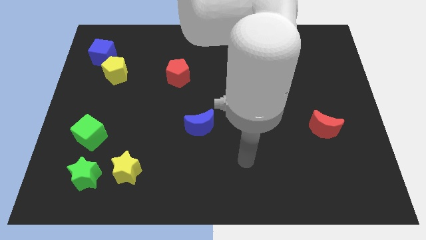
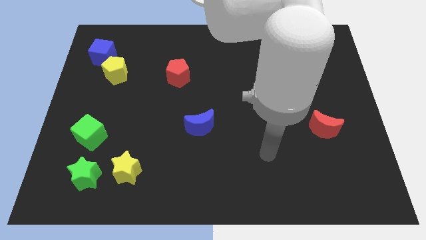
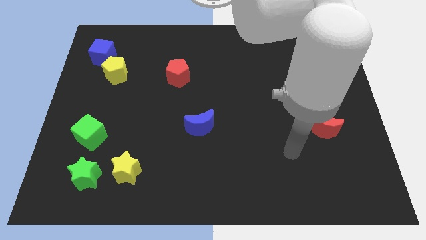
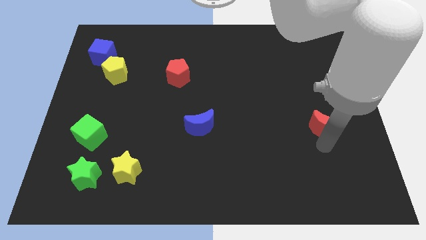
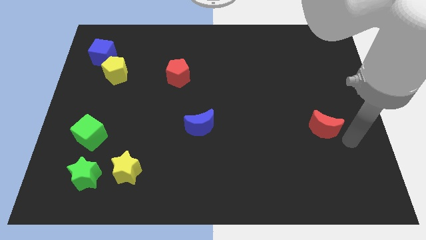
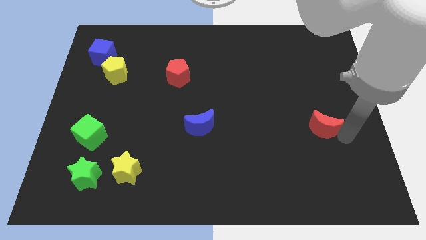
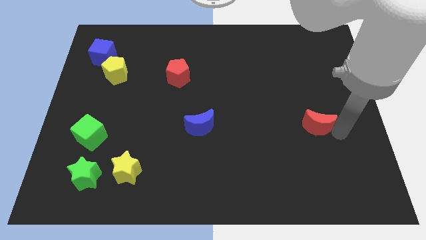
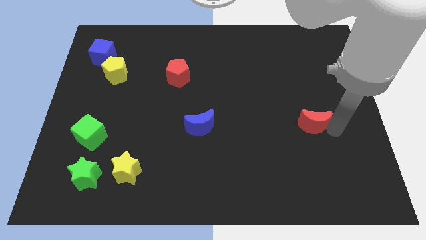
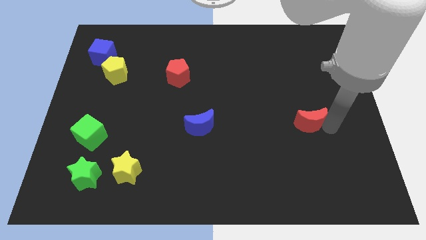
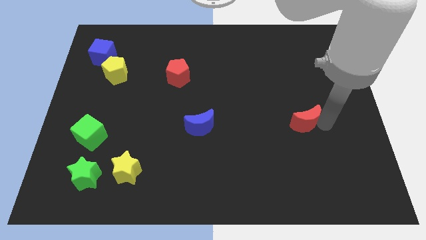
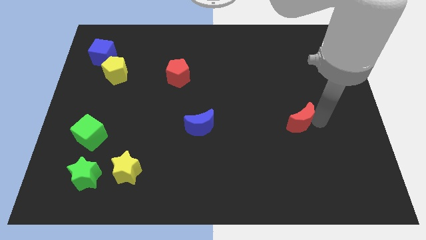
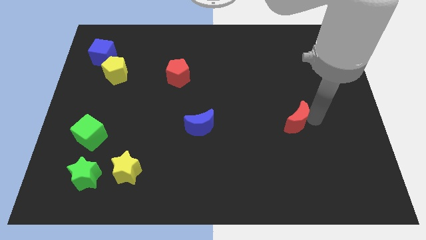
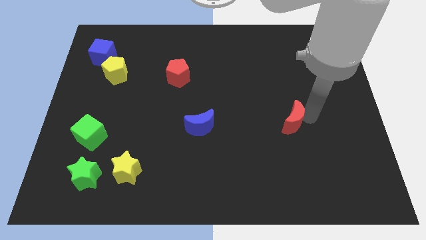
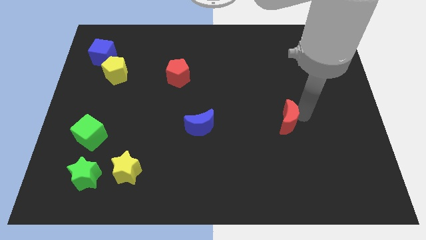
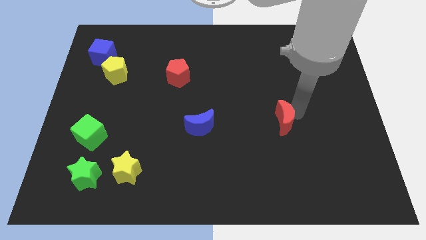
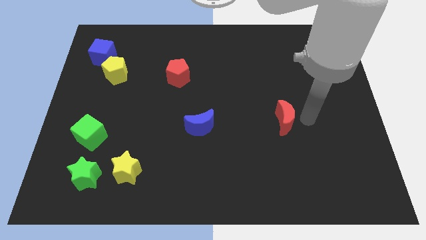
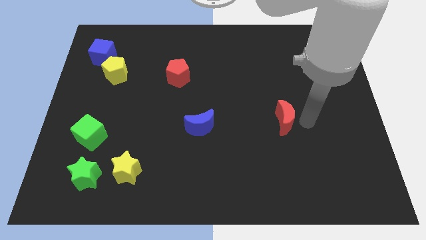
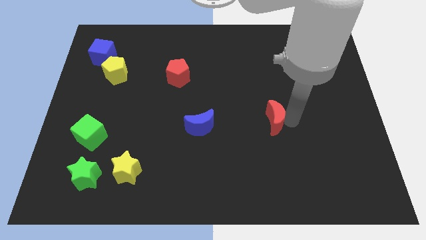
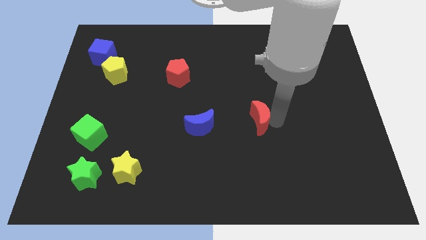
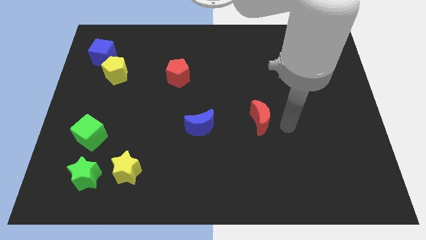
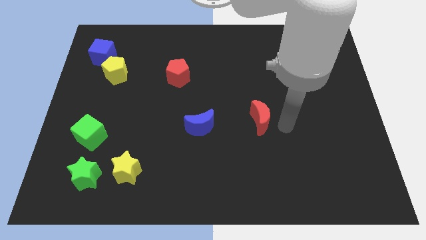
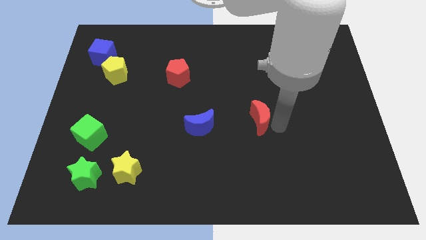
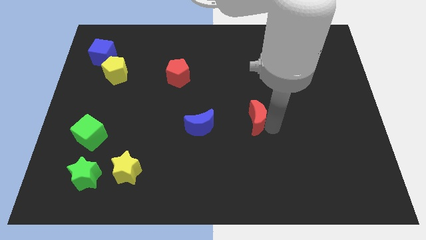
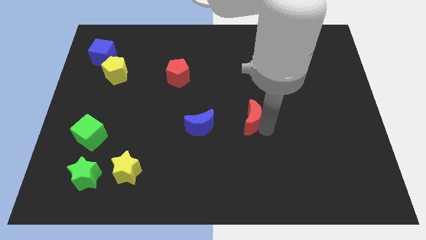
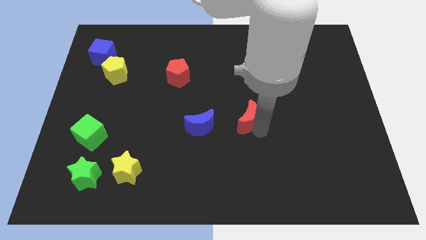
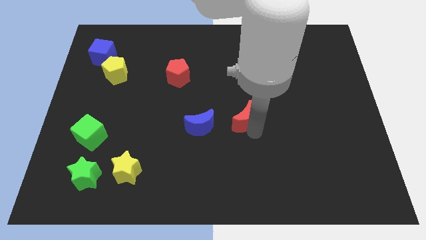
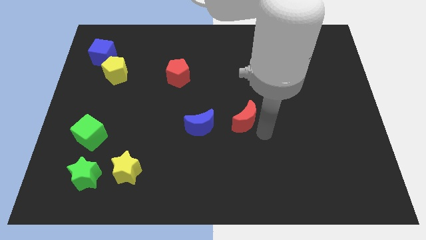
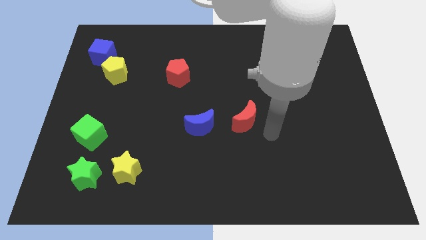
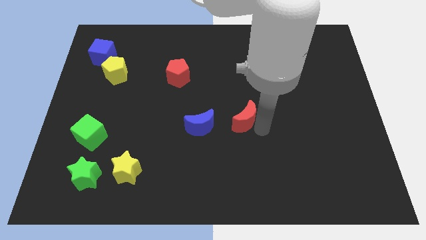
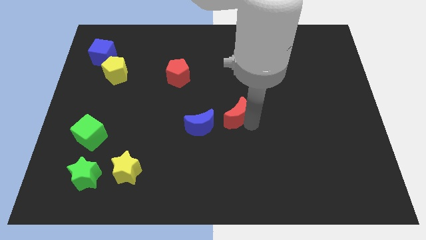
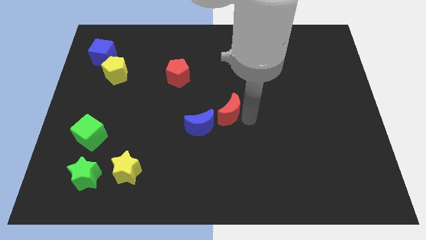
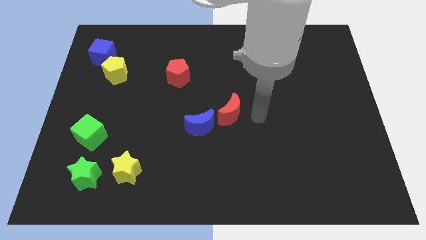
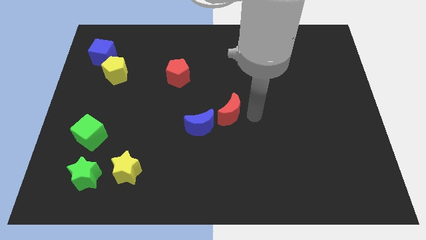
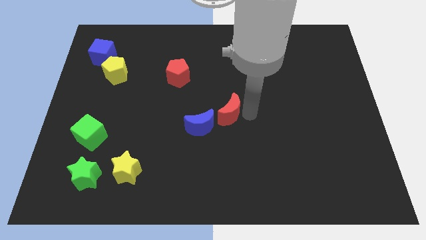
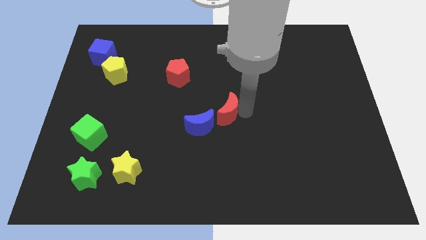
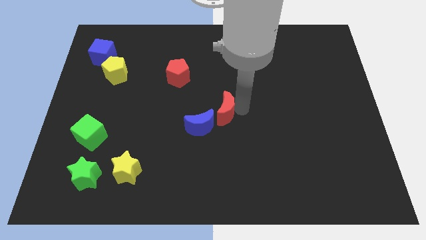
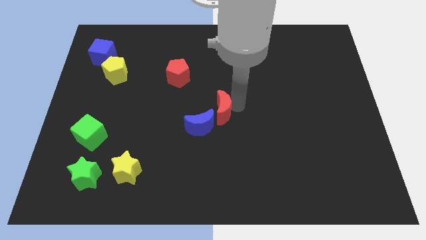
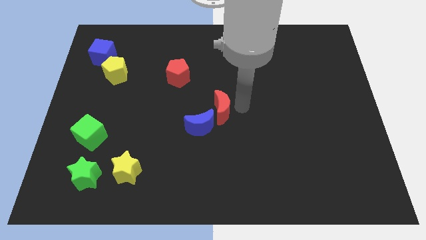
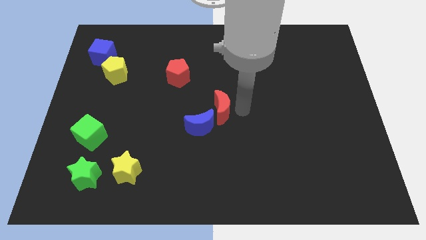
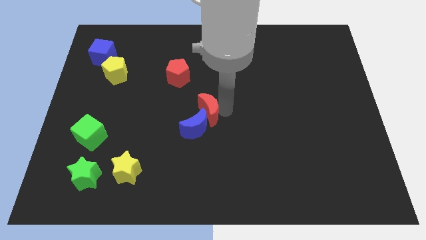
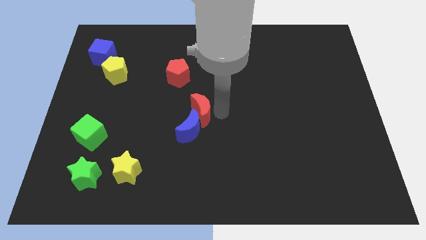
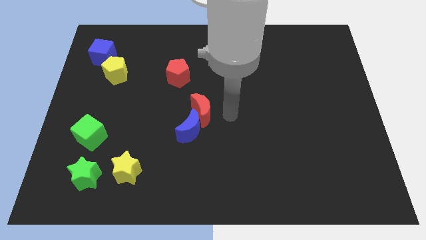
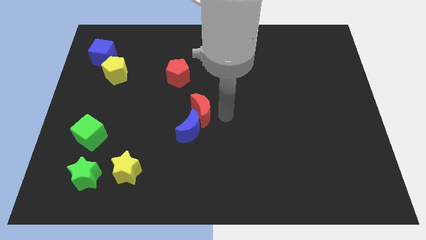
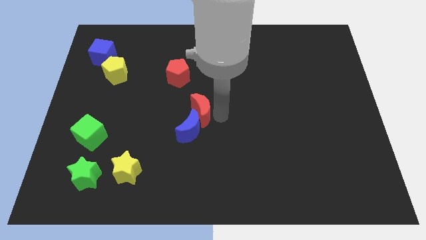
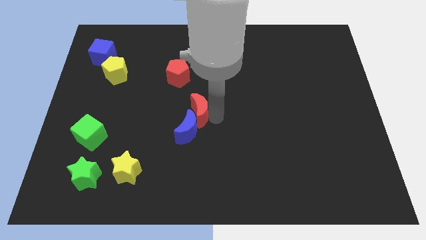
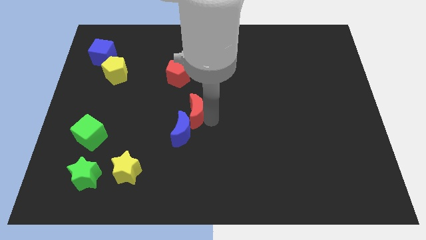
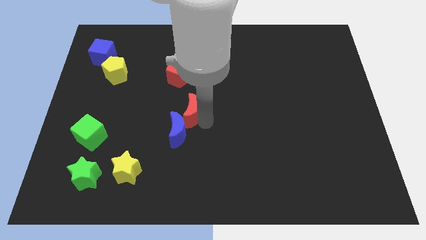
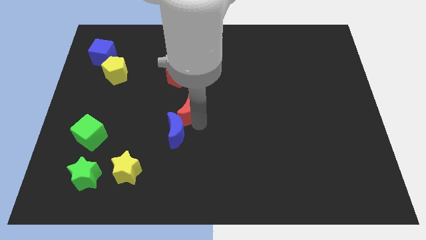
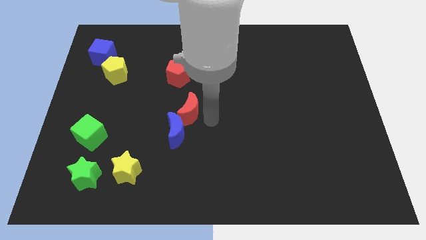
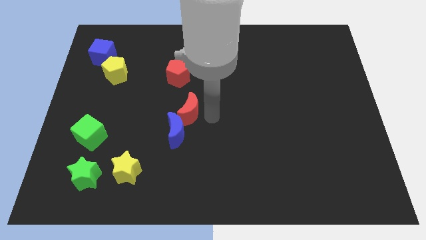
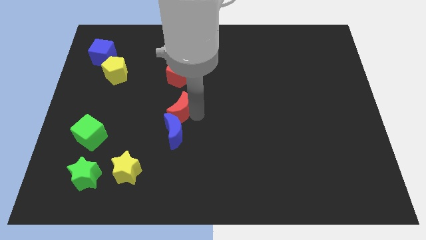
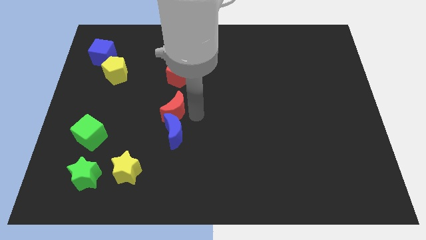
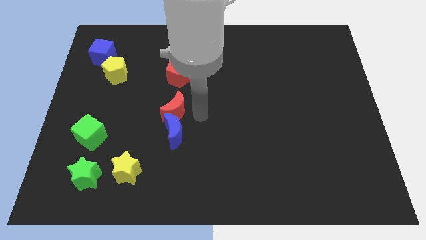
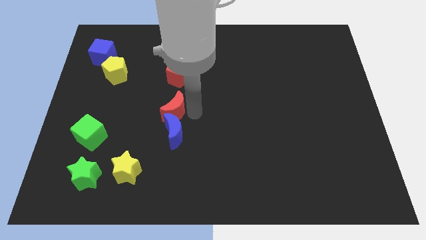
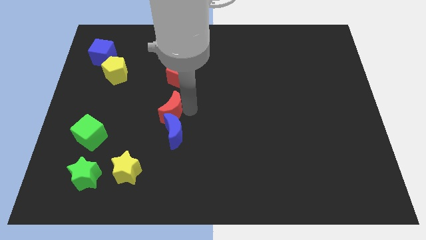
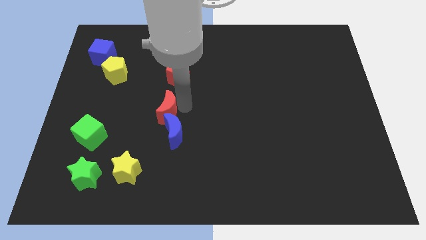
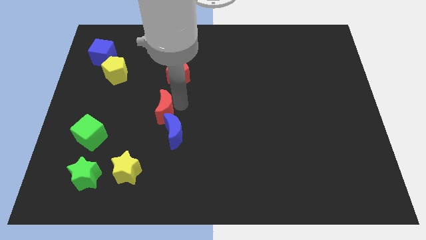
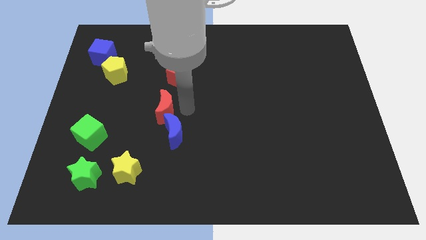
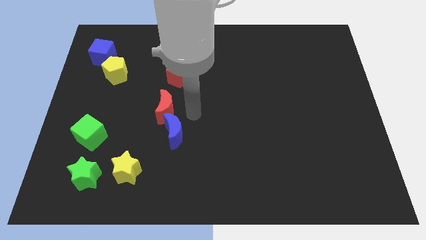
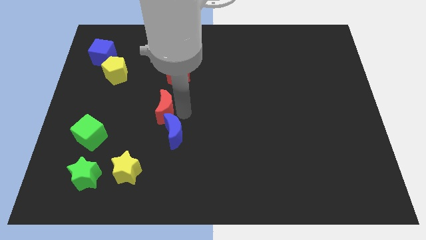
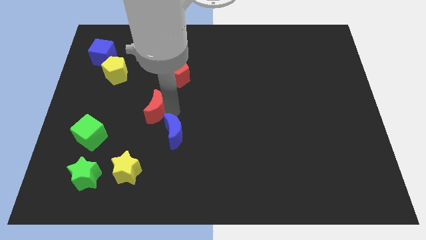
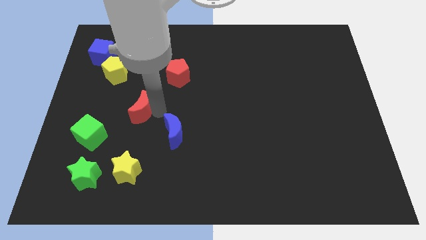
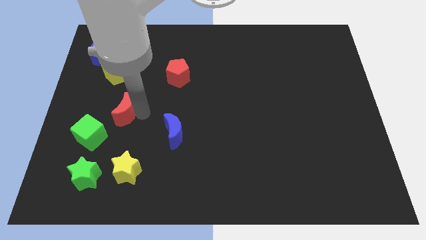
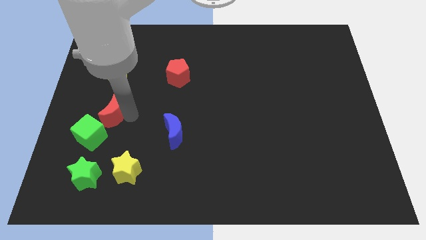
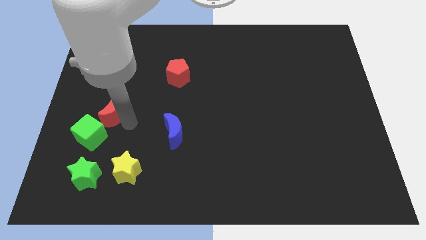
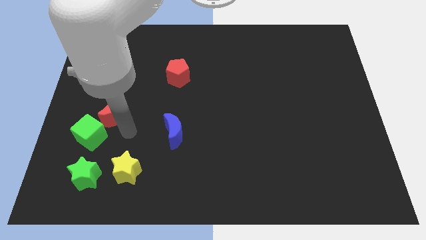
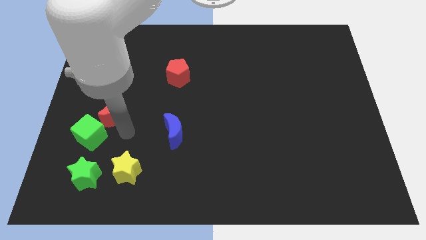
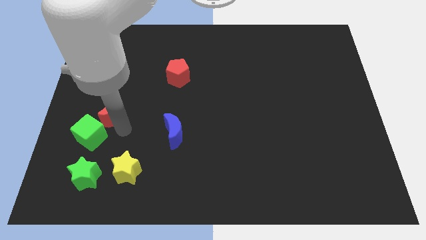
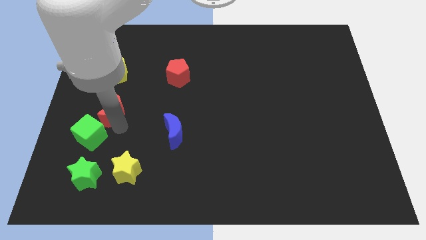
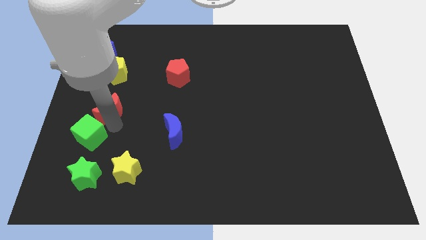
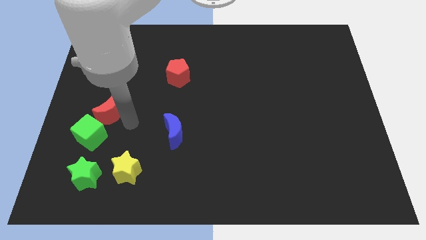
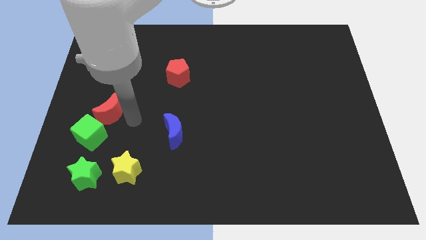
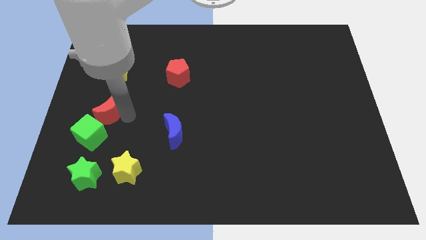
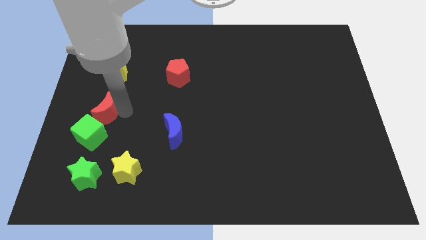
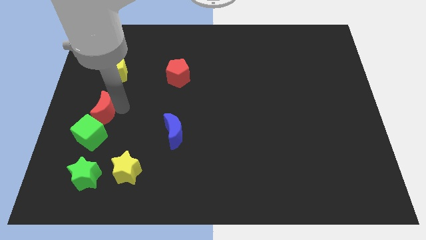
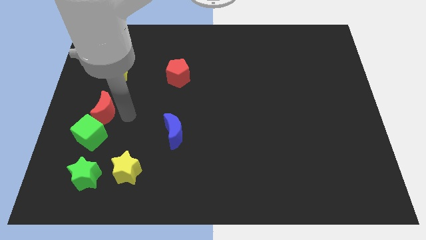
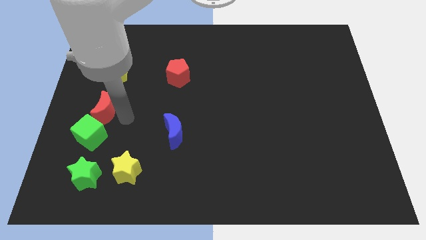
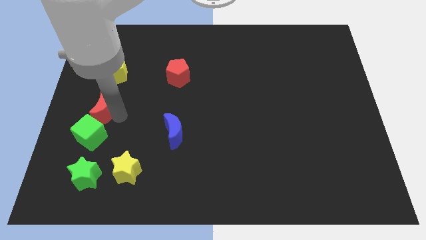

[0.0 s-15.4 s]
push the red moon to the center left
